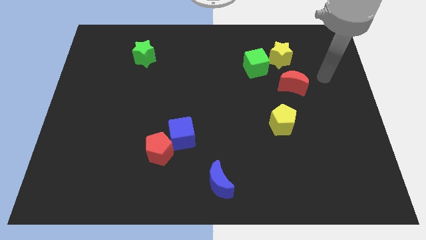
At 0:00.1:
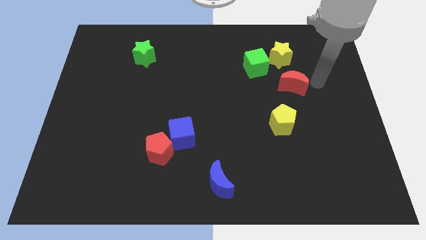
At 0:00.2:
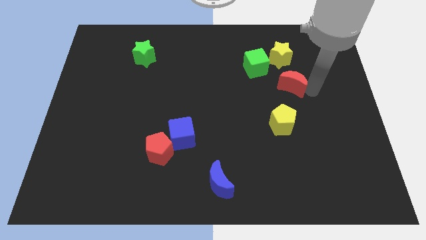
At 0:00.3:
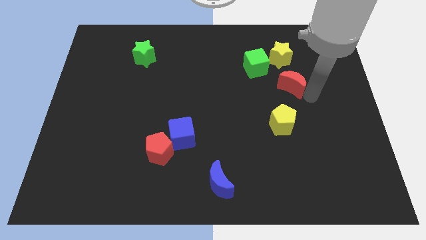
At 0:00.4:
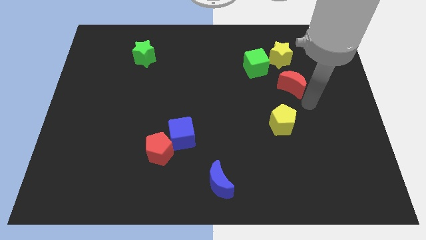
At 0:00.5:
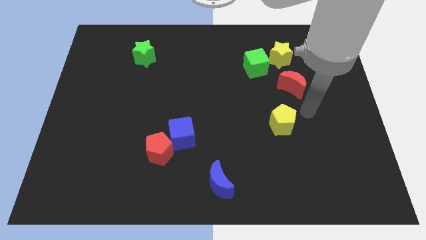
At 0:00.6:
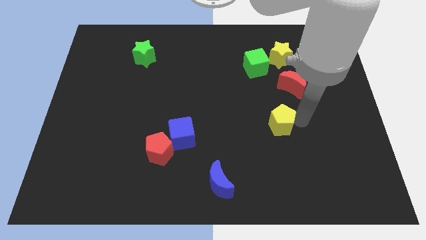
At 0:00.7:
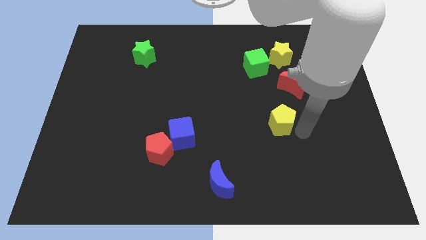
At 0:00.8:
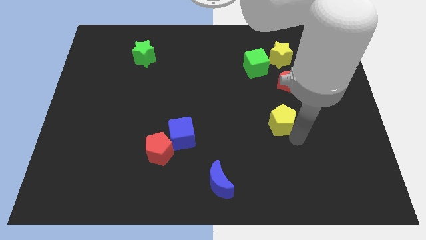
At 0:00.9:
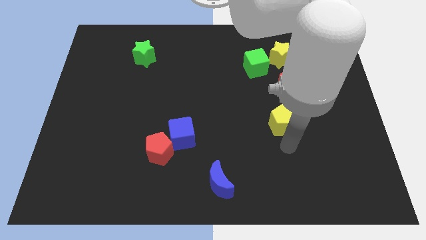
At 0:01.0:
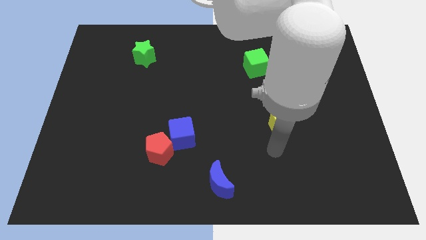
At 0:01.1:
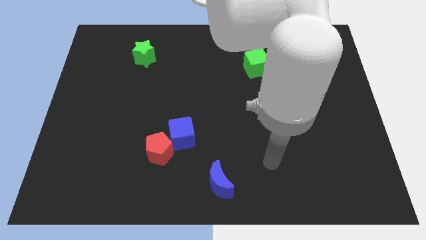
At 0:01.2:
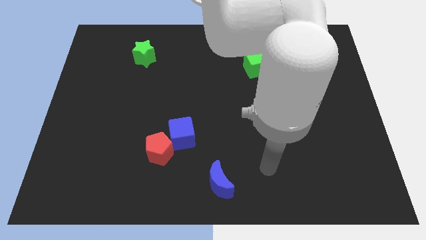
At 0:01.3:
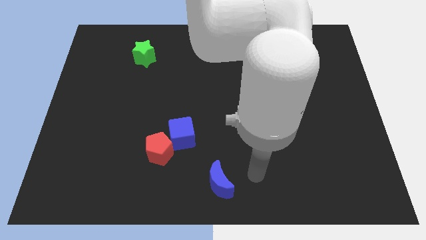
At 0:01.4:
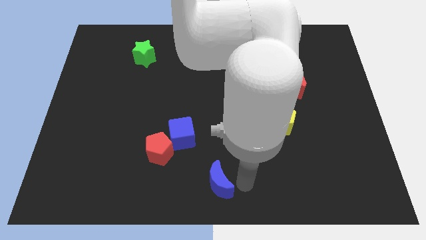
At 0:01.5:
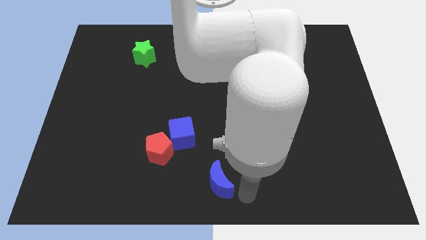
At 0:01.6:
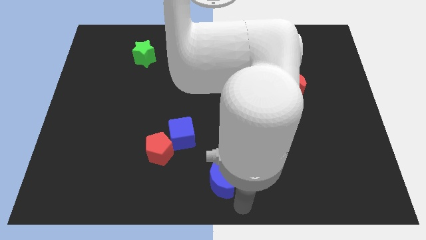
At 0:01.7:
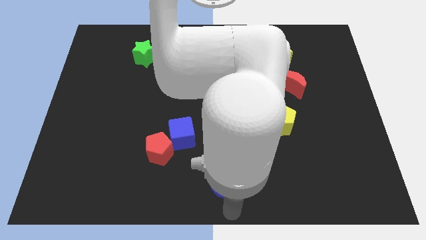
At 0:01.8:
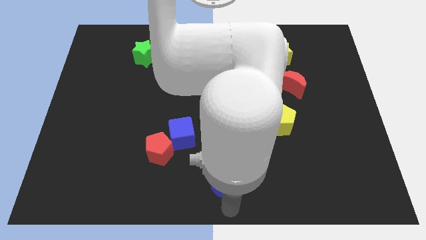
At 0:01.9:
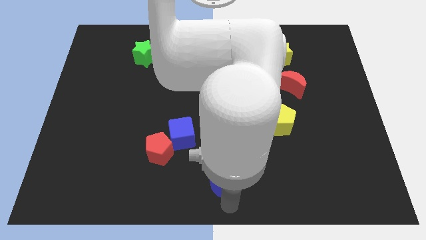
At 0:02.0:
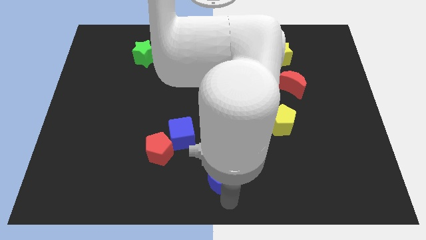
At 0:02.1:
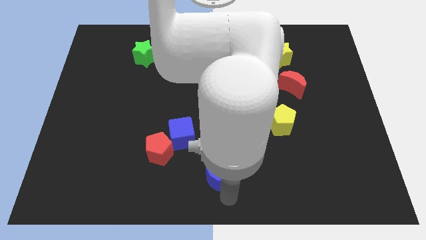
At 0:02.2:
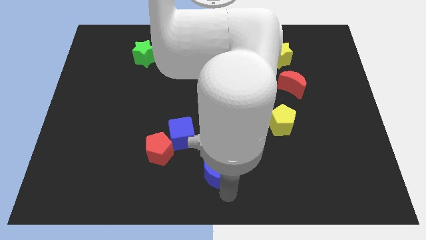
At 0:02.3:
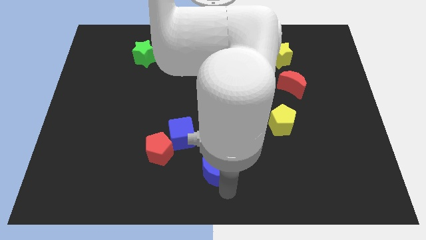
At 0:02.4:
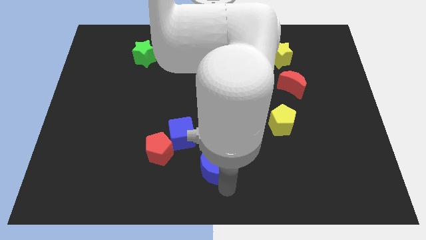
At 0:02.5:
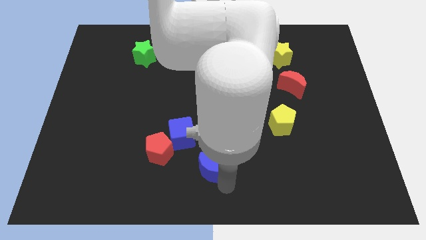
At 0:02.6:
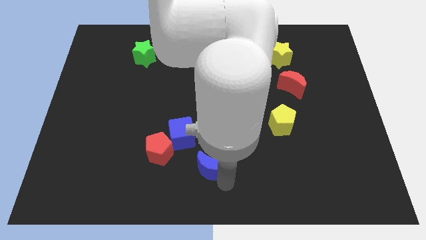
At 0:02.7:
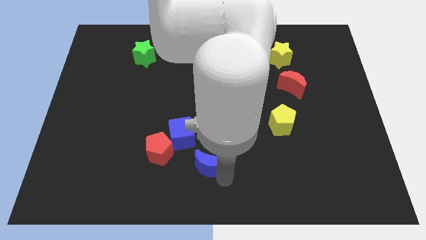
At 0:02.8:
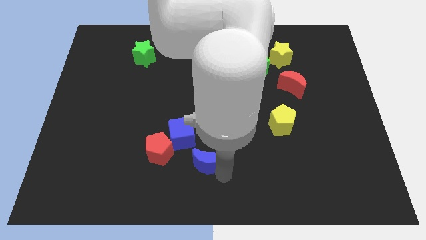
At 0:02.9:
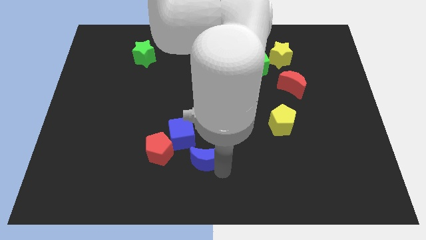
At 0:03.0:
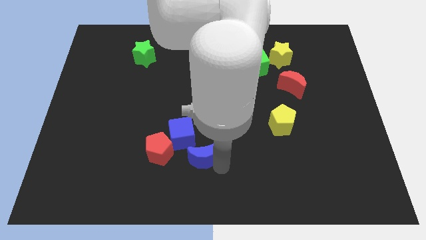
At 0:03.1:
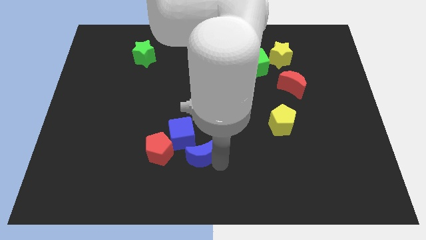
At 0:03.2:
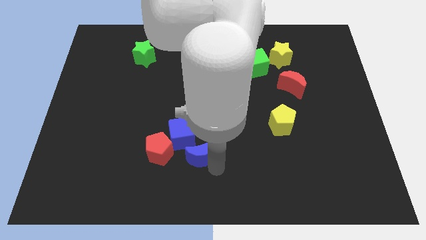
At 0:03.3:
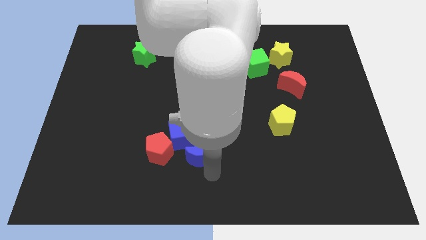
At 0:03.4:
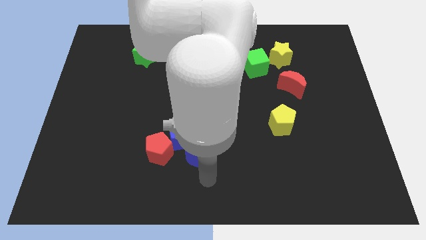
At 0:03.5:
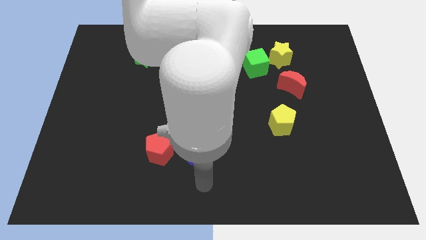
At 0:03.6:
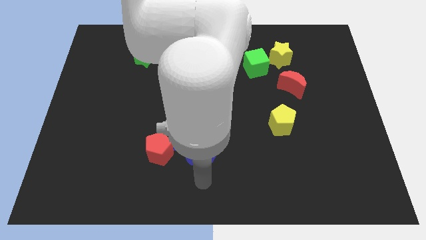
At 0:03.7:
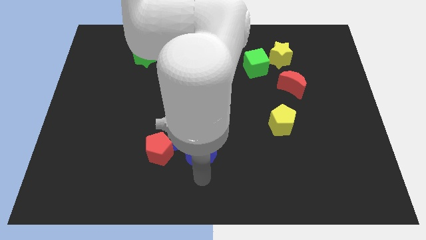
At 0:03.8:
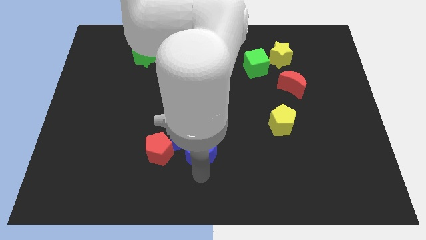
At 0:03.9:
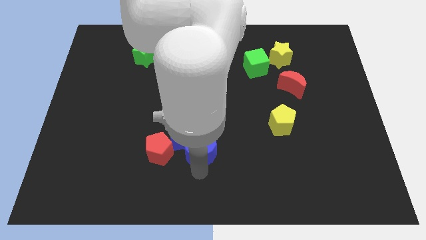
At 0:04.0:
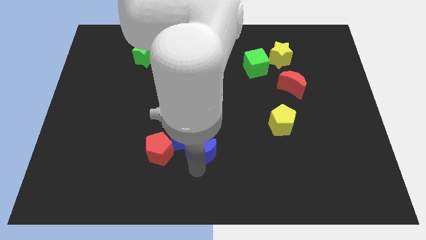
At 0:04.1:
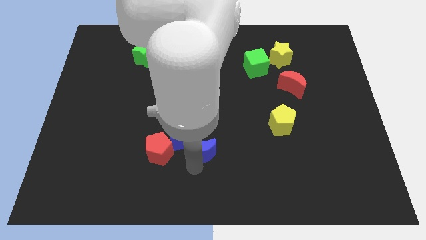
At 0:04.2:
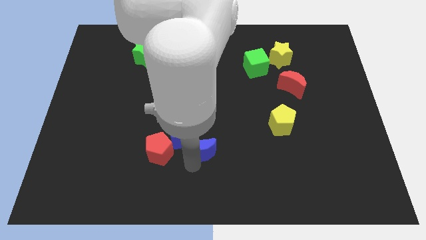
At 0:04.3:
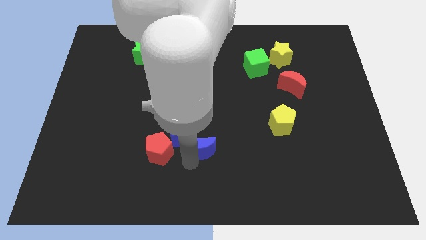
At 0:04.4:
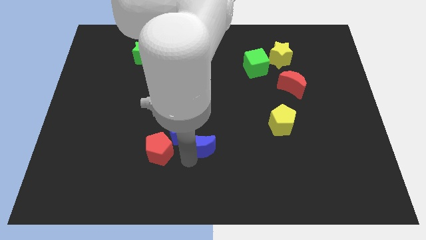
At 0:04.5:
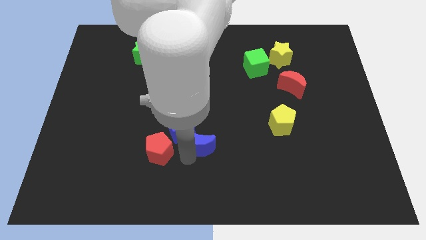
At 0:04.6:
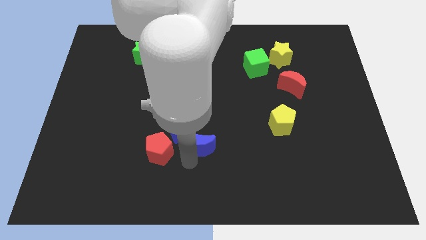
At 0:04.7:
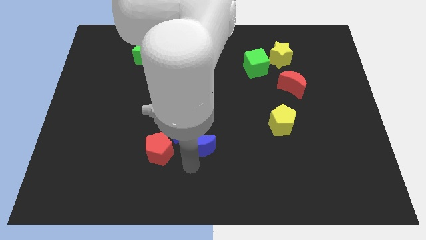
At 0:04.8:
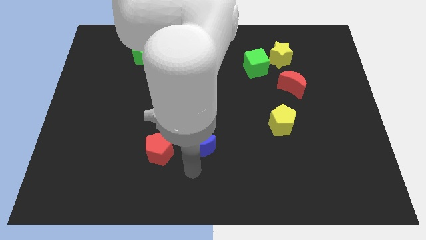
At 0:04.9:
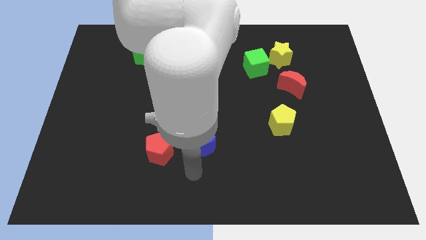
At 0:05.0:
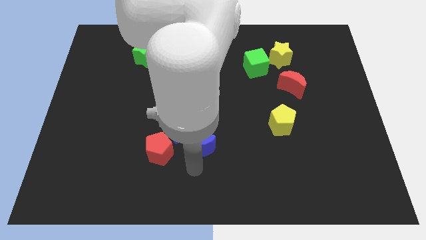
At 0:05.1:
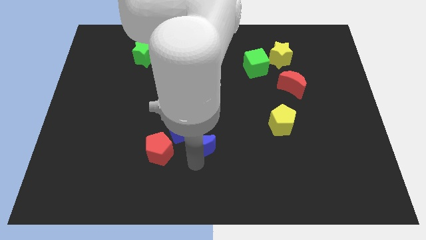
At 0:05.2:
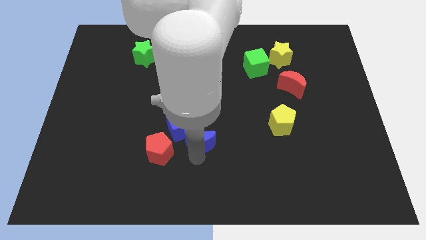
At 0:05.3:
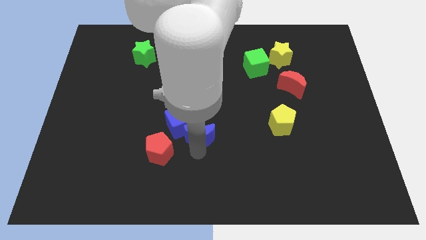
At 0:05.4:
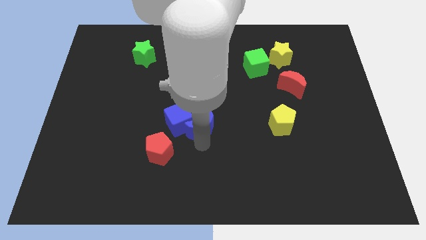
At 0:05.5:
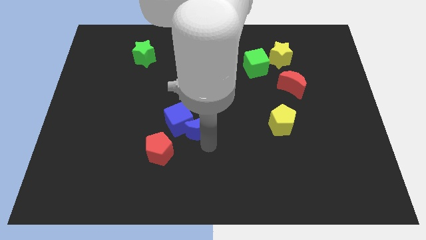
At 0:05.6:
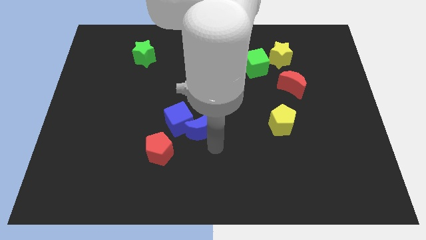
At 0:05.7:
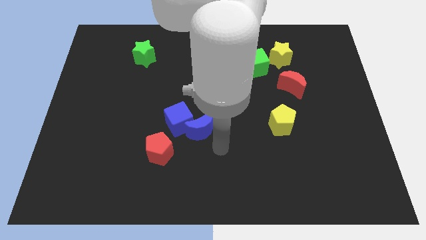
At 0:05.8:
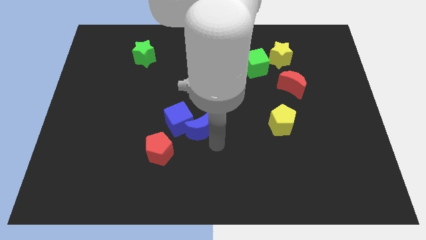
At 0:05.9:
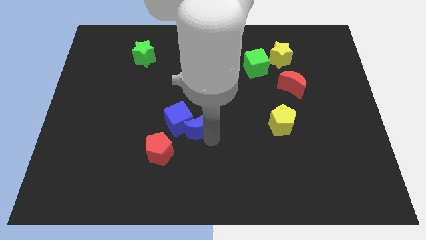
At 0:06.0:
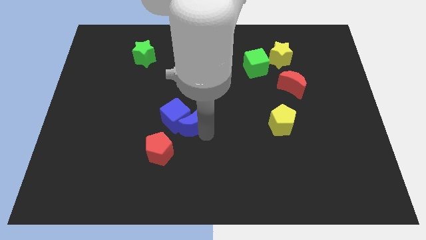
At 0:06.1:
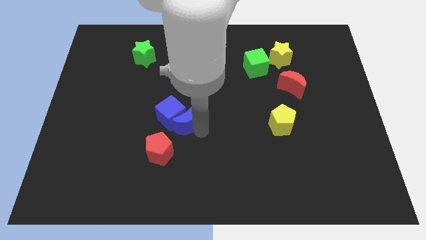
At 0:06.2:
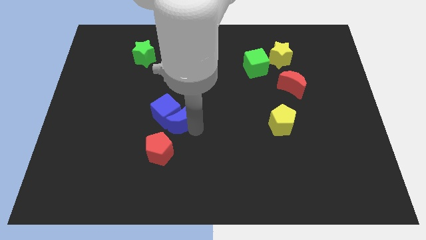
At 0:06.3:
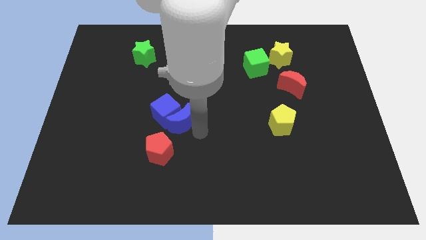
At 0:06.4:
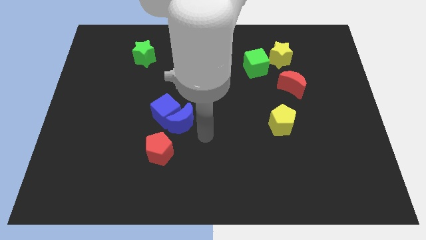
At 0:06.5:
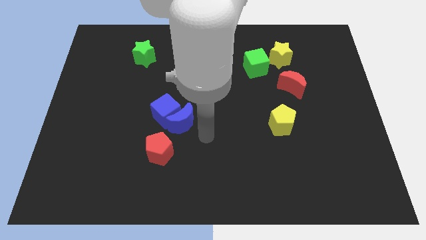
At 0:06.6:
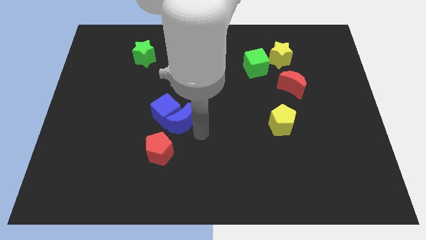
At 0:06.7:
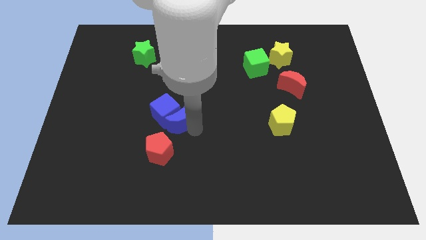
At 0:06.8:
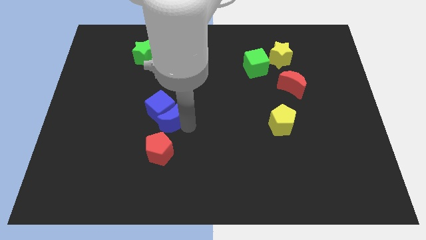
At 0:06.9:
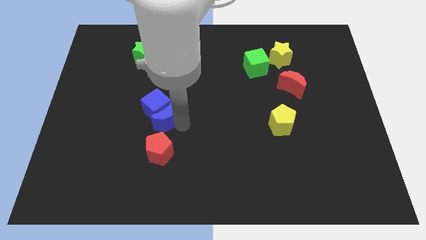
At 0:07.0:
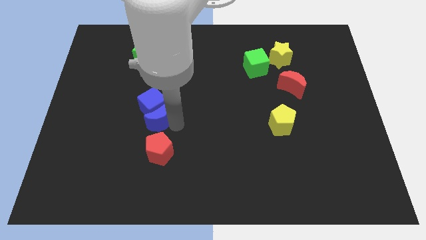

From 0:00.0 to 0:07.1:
push the blue moon upwards and to the left

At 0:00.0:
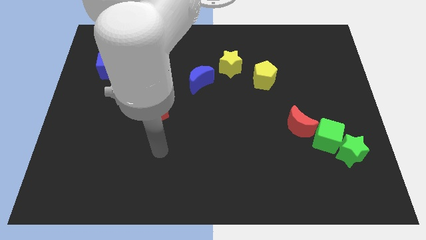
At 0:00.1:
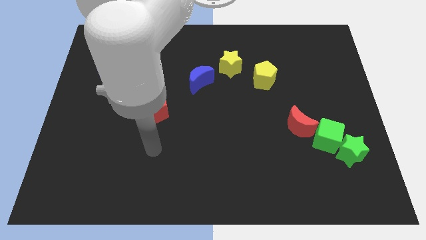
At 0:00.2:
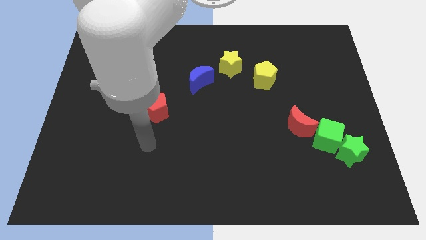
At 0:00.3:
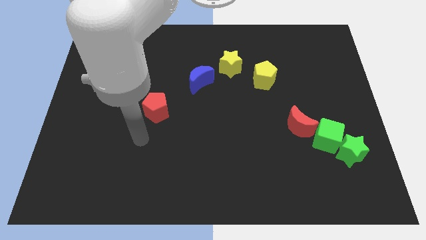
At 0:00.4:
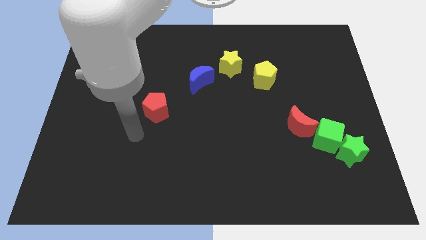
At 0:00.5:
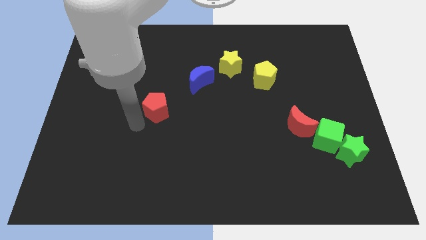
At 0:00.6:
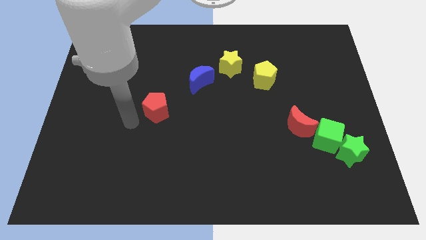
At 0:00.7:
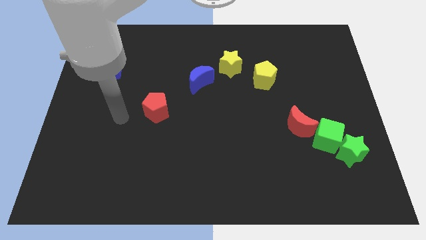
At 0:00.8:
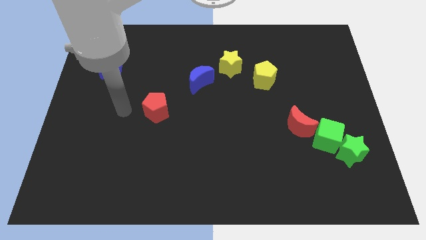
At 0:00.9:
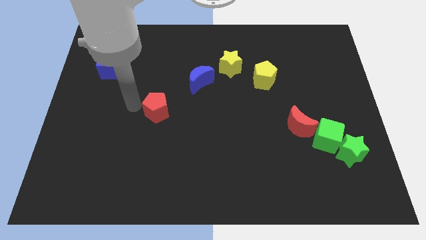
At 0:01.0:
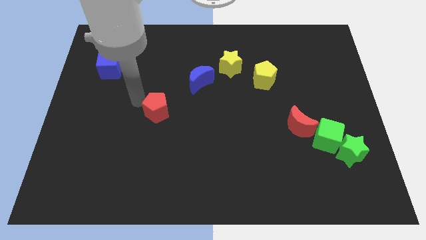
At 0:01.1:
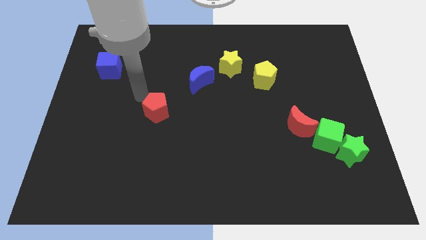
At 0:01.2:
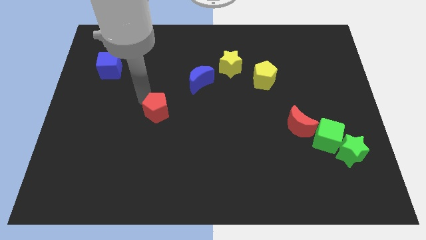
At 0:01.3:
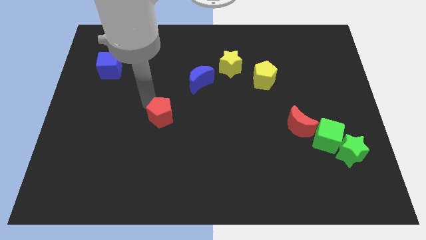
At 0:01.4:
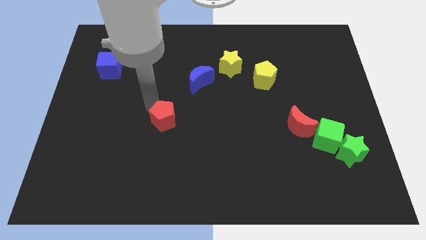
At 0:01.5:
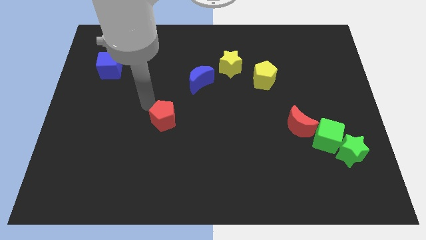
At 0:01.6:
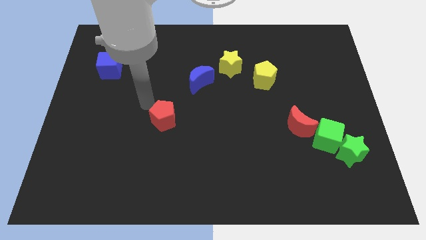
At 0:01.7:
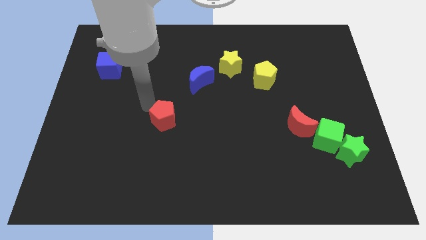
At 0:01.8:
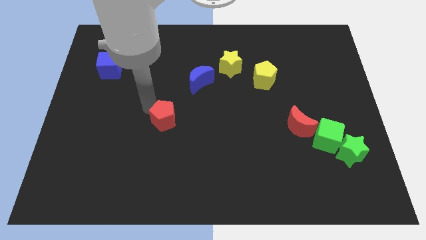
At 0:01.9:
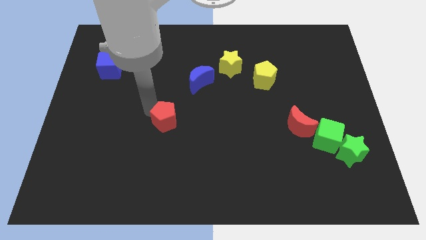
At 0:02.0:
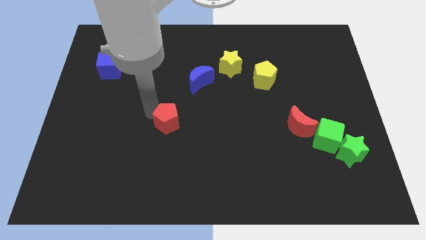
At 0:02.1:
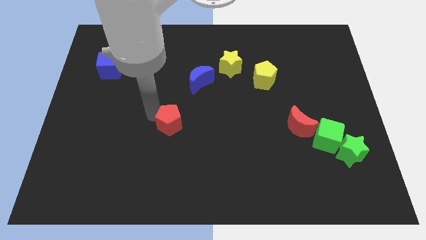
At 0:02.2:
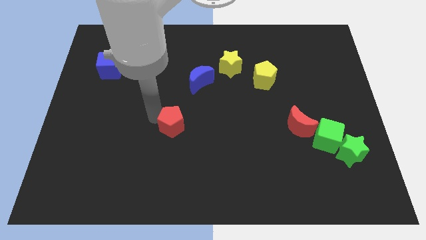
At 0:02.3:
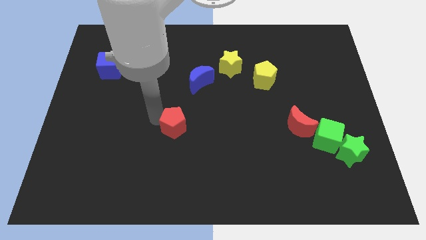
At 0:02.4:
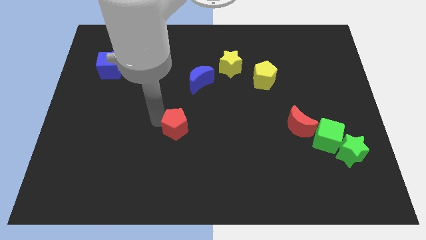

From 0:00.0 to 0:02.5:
push the red pentagon somewhat down and then right
